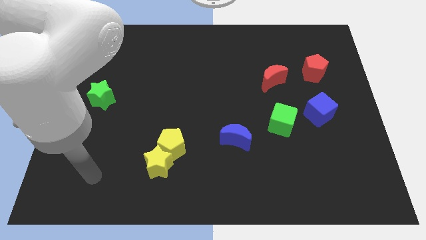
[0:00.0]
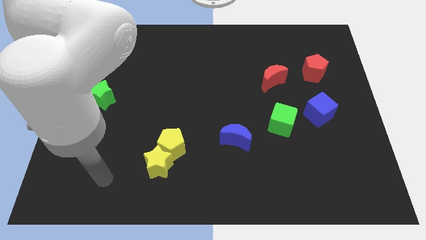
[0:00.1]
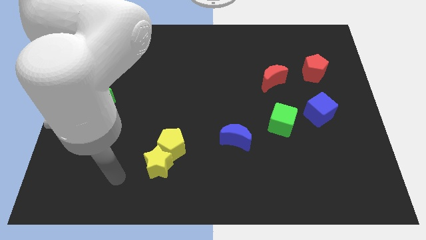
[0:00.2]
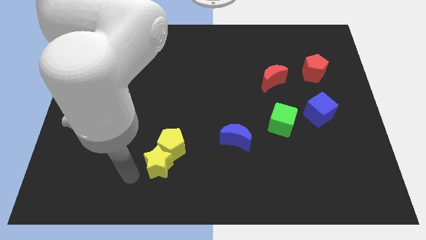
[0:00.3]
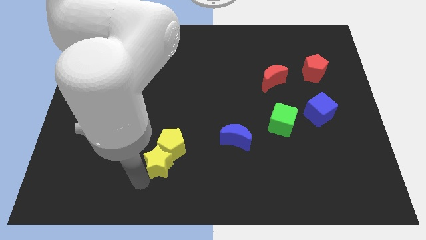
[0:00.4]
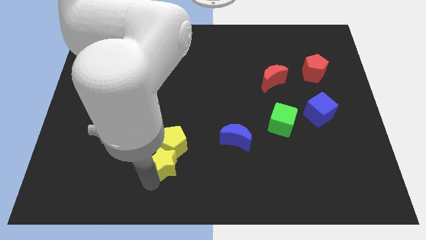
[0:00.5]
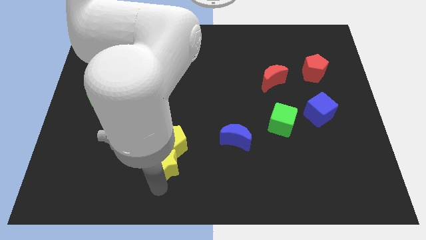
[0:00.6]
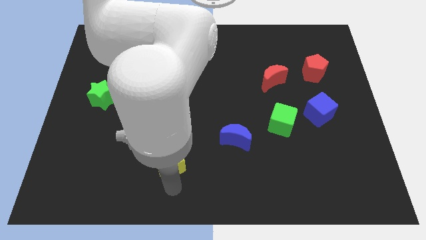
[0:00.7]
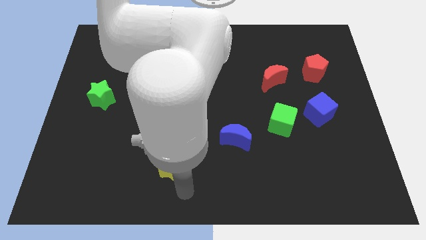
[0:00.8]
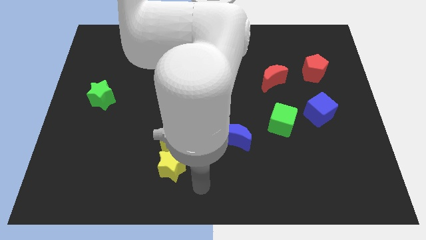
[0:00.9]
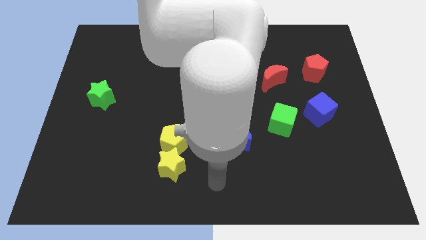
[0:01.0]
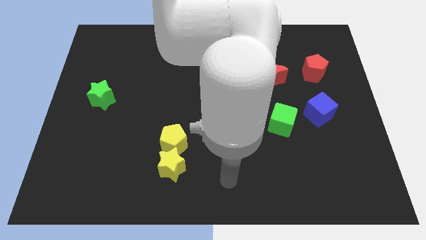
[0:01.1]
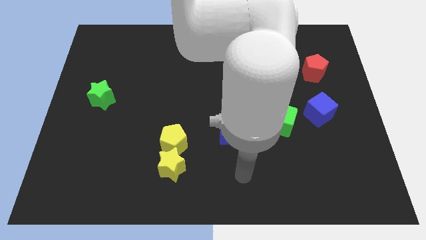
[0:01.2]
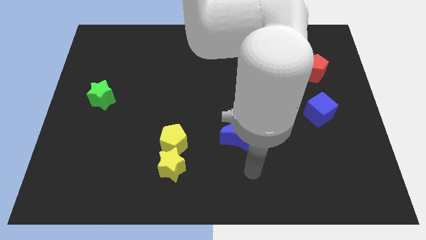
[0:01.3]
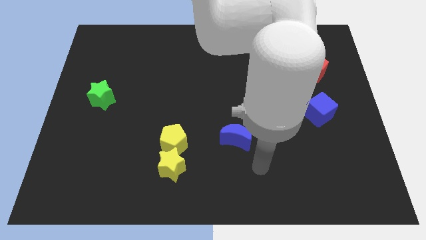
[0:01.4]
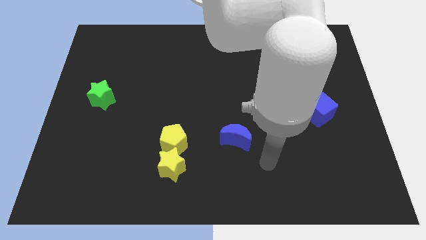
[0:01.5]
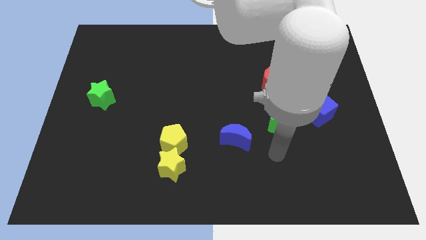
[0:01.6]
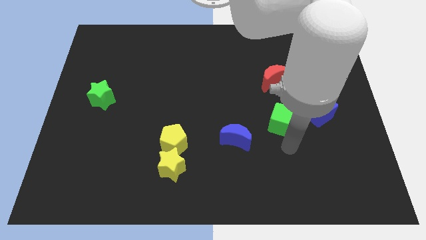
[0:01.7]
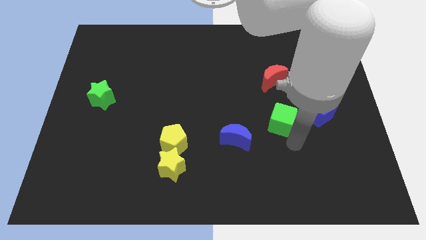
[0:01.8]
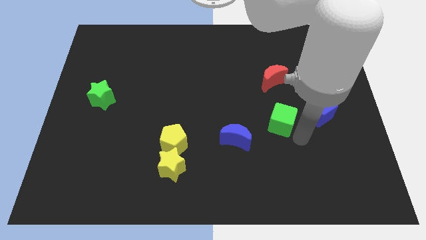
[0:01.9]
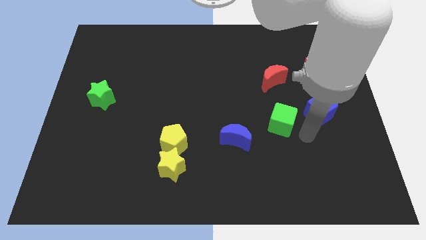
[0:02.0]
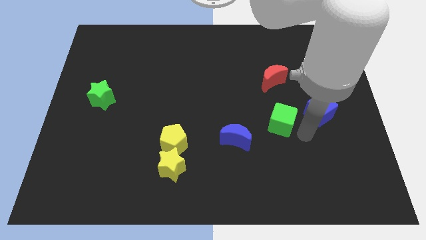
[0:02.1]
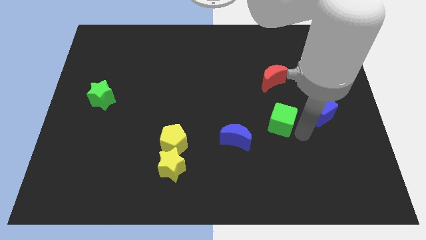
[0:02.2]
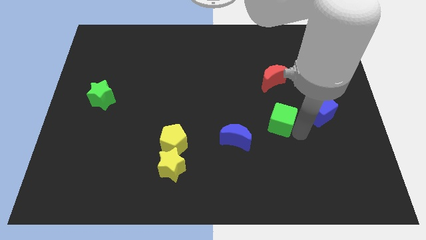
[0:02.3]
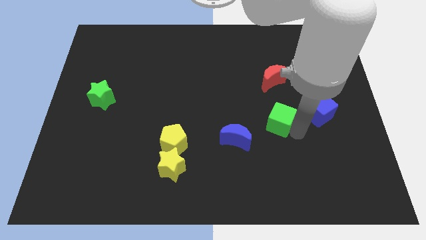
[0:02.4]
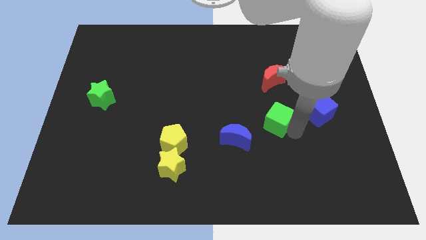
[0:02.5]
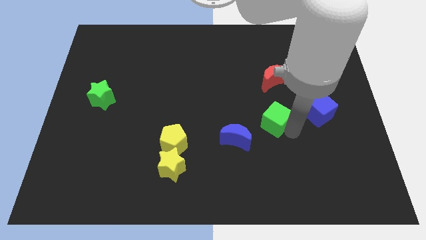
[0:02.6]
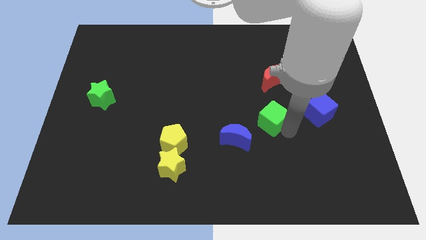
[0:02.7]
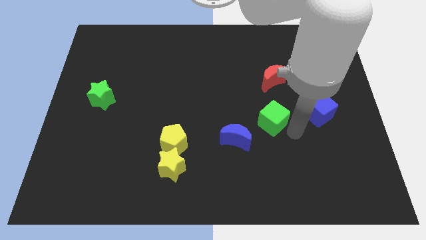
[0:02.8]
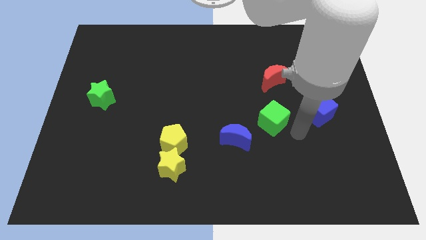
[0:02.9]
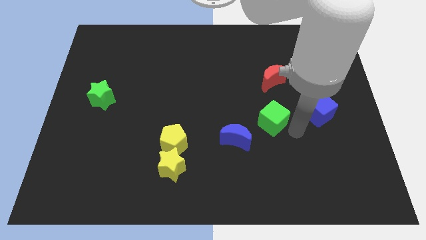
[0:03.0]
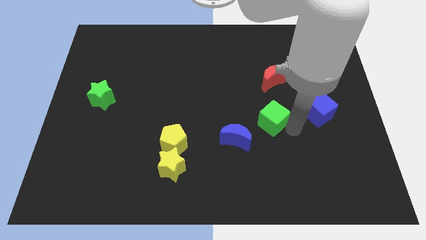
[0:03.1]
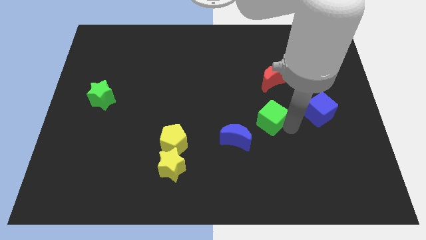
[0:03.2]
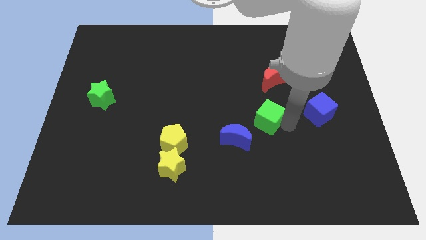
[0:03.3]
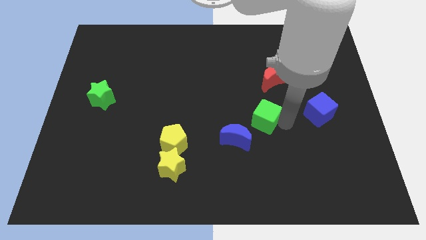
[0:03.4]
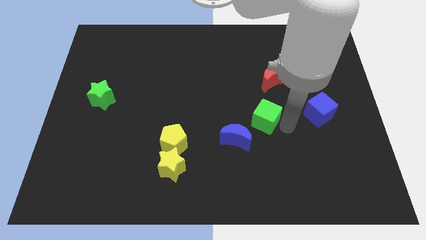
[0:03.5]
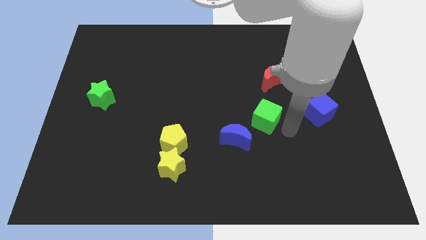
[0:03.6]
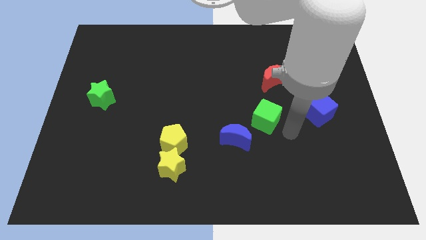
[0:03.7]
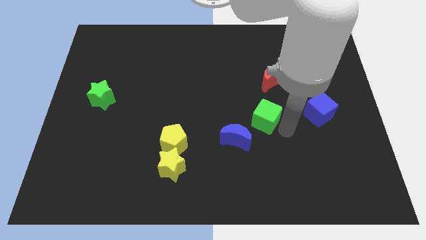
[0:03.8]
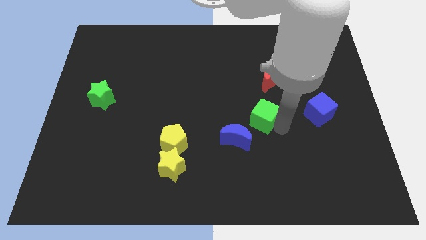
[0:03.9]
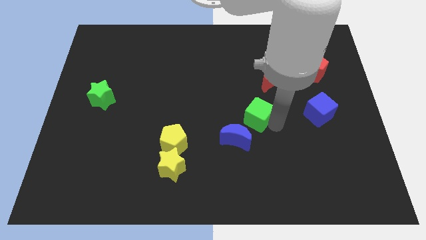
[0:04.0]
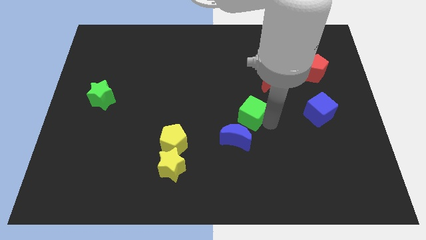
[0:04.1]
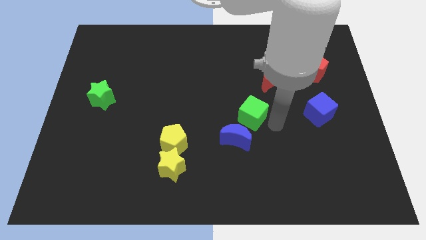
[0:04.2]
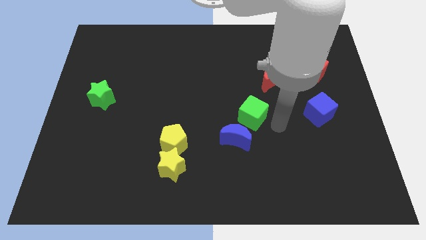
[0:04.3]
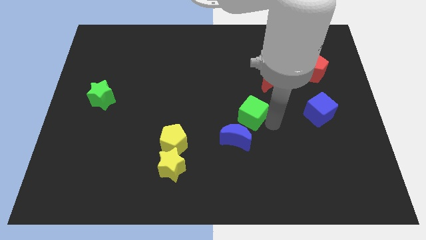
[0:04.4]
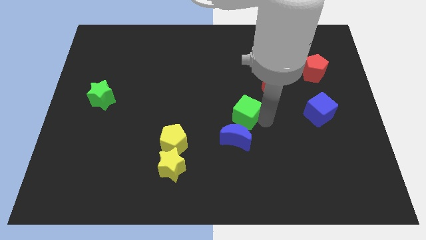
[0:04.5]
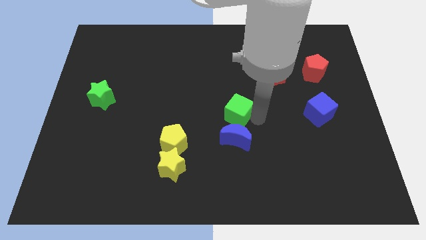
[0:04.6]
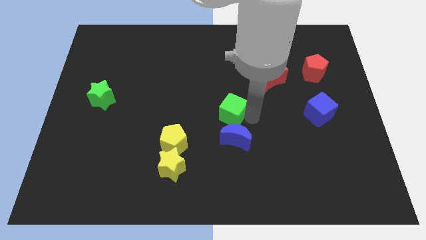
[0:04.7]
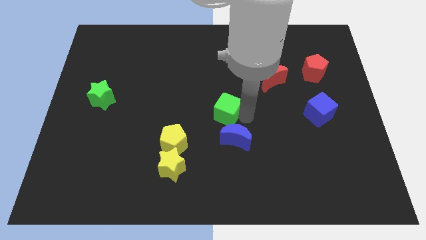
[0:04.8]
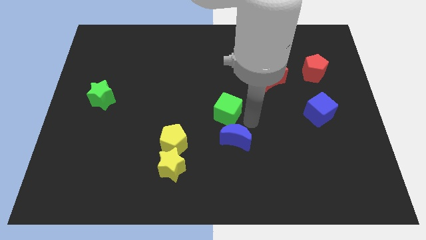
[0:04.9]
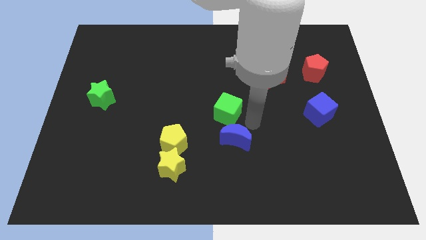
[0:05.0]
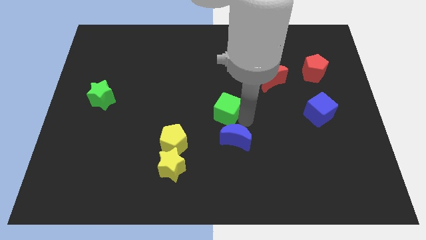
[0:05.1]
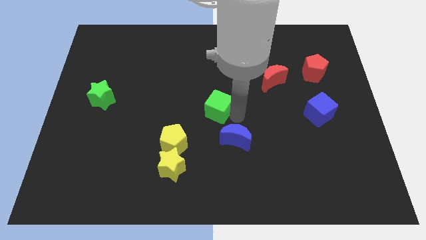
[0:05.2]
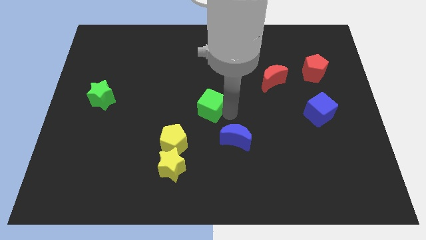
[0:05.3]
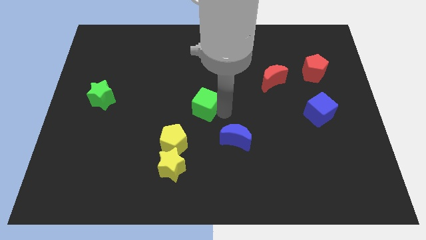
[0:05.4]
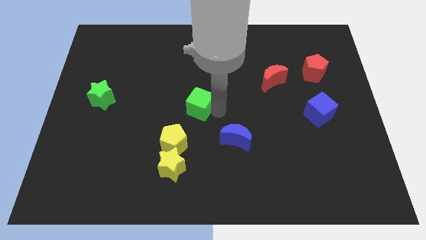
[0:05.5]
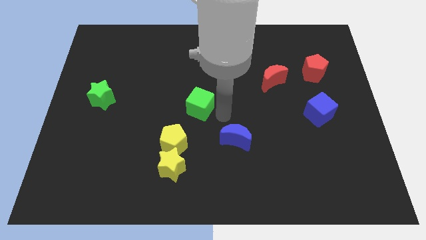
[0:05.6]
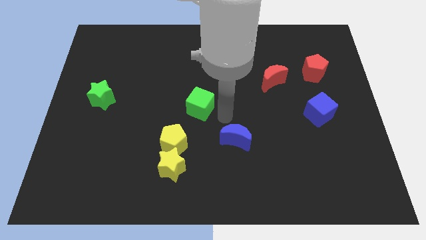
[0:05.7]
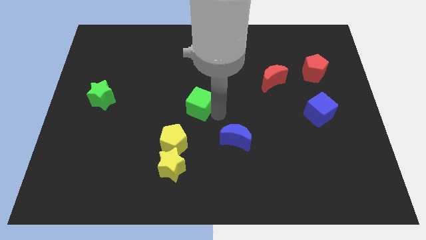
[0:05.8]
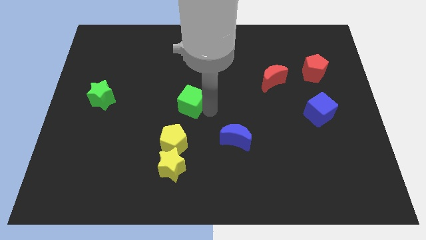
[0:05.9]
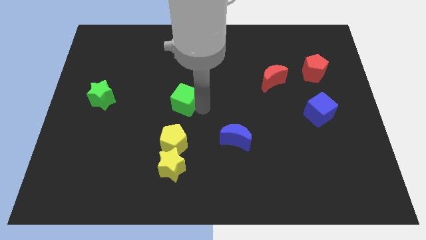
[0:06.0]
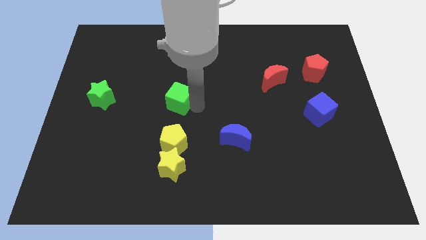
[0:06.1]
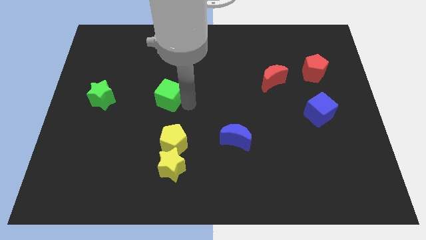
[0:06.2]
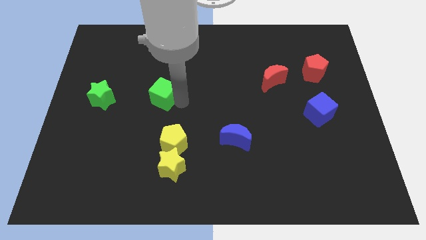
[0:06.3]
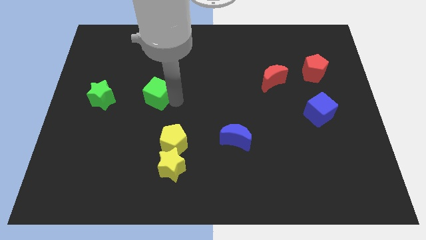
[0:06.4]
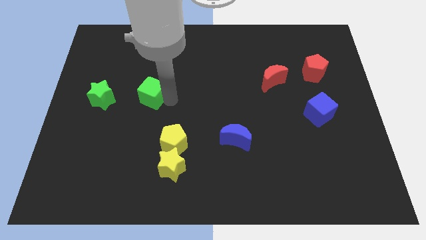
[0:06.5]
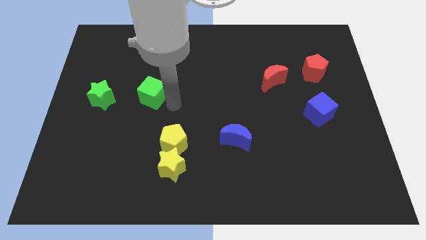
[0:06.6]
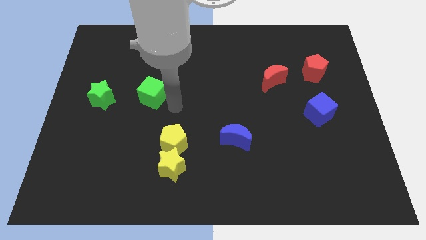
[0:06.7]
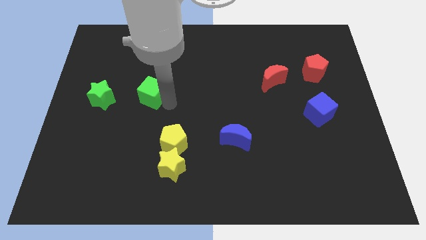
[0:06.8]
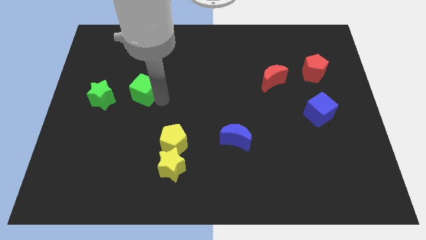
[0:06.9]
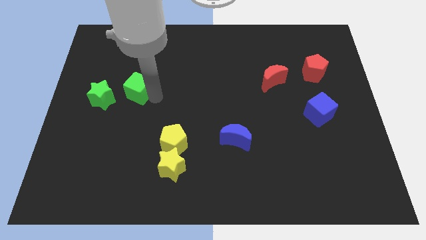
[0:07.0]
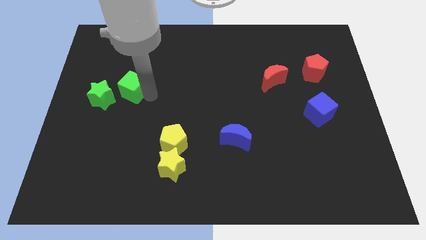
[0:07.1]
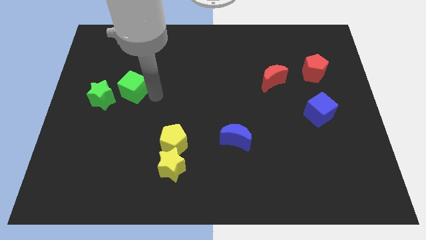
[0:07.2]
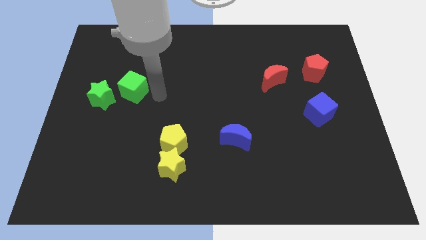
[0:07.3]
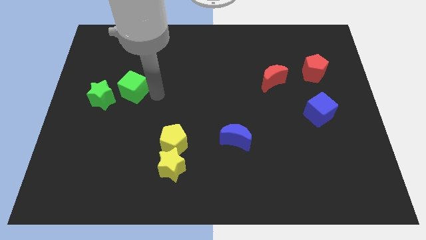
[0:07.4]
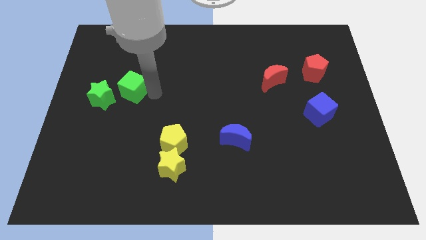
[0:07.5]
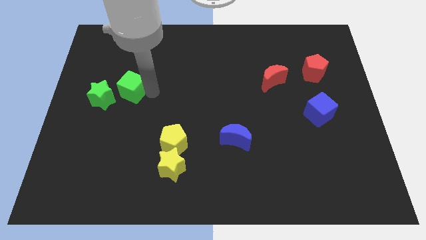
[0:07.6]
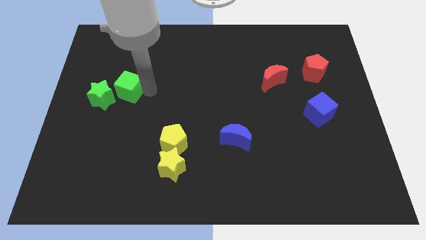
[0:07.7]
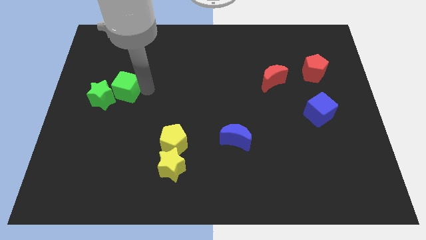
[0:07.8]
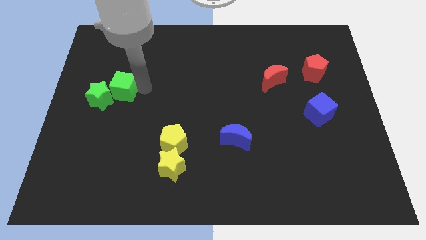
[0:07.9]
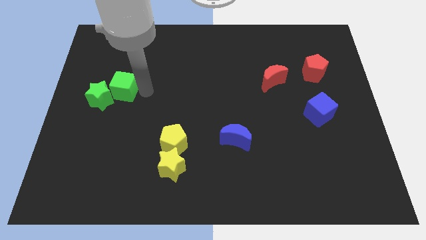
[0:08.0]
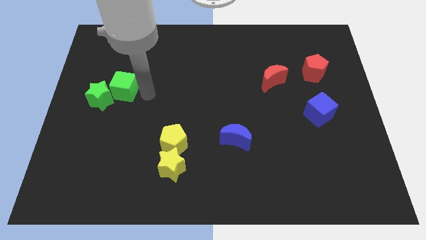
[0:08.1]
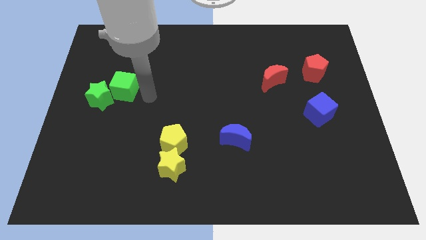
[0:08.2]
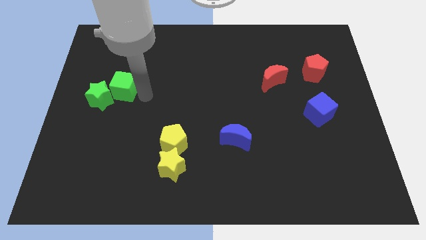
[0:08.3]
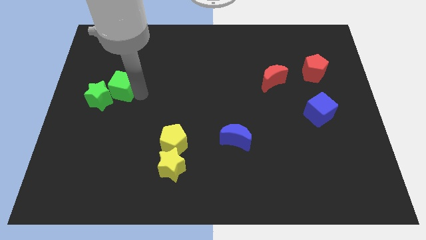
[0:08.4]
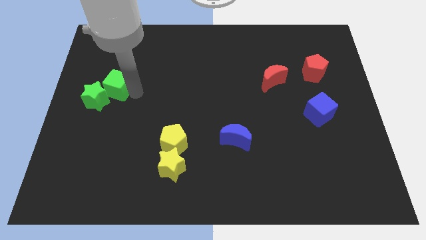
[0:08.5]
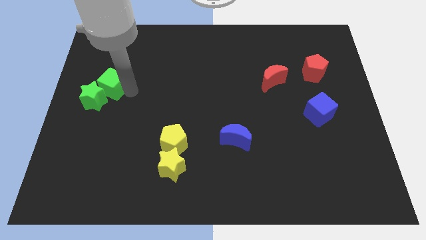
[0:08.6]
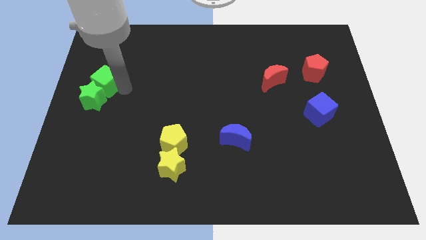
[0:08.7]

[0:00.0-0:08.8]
move the green cube to the left side
